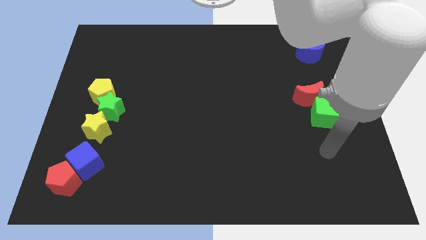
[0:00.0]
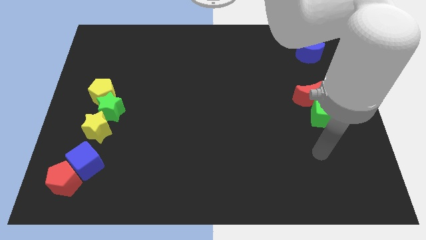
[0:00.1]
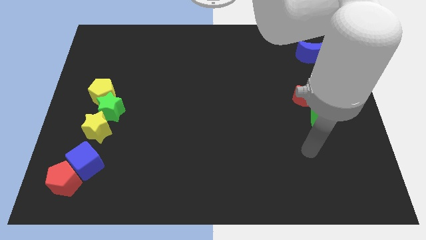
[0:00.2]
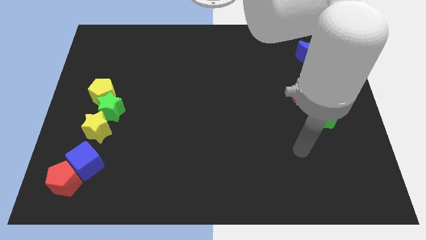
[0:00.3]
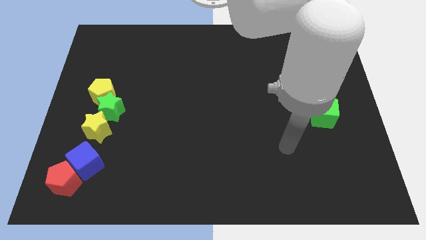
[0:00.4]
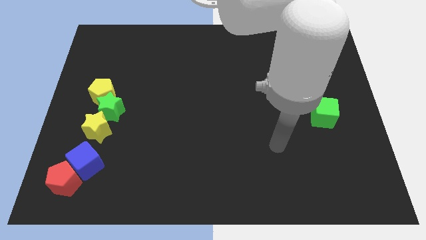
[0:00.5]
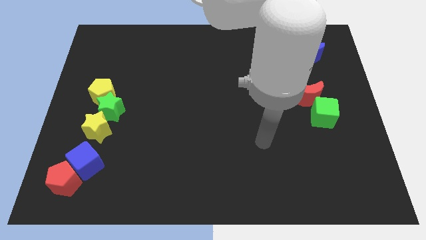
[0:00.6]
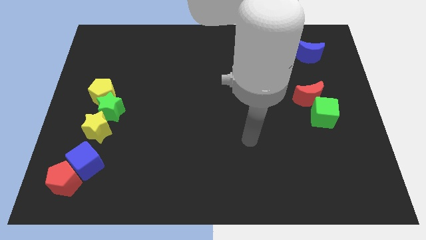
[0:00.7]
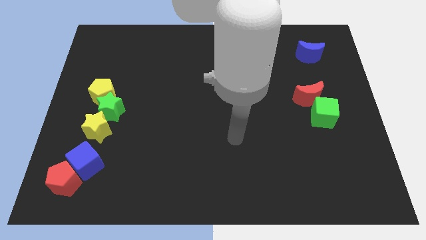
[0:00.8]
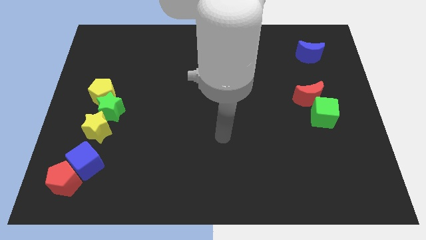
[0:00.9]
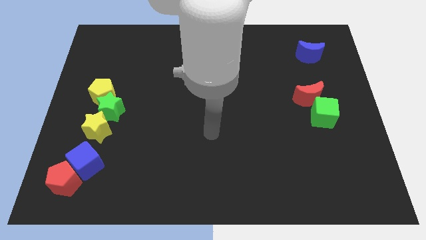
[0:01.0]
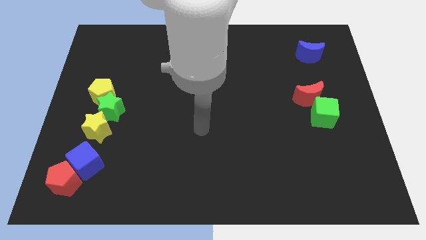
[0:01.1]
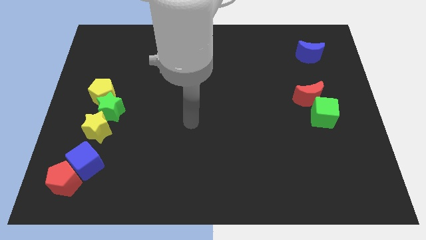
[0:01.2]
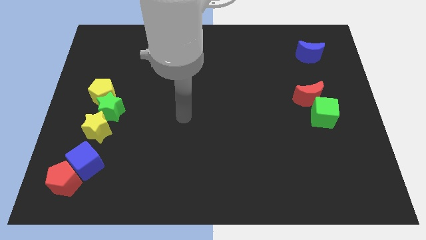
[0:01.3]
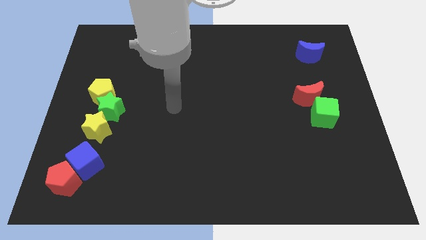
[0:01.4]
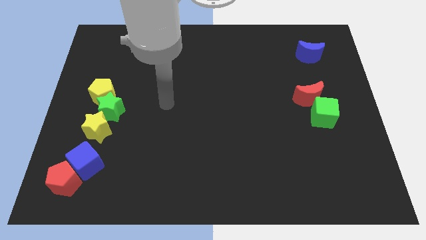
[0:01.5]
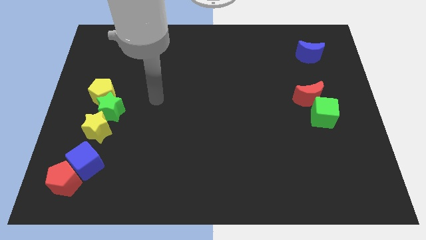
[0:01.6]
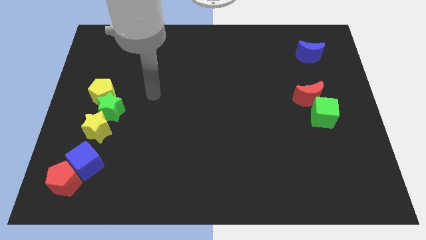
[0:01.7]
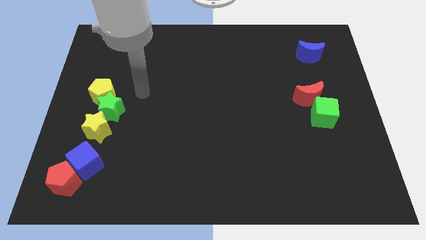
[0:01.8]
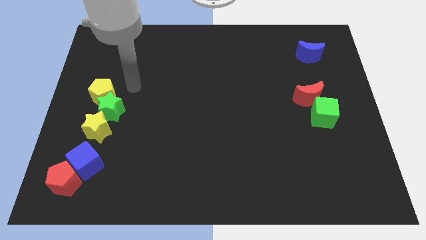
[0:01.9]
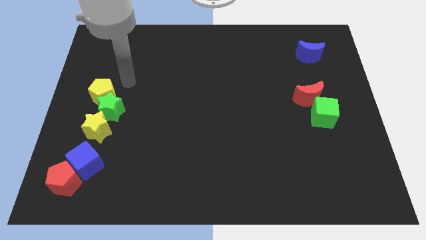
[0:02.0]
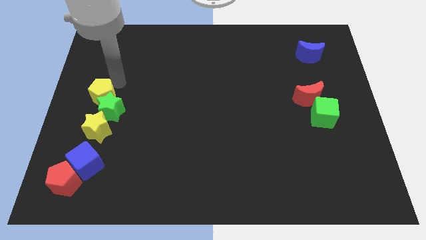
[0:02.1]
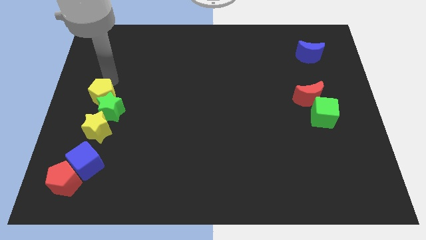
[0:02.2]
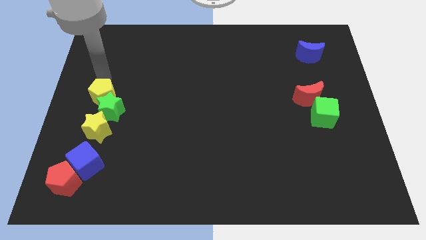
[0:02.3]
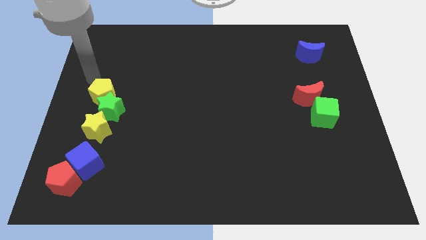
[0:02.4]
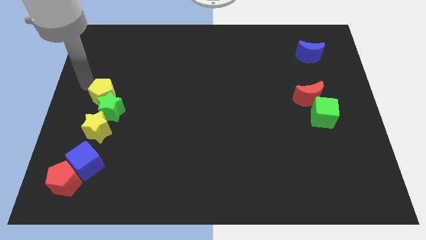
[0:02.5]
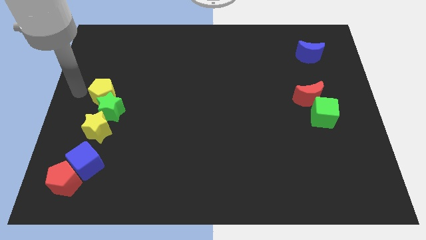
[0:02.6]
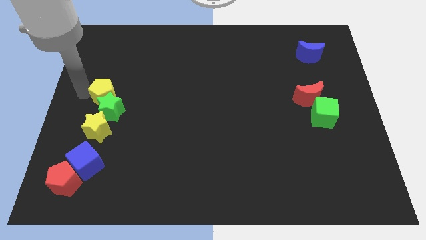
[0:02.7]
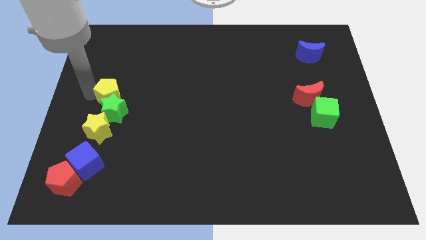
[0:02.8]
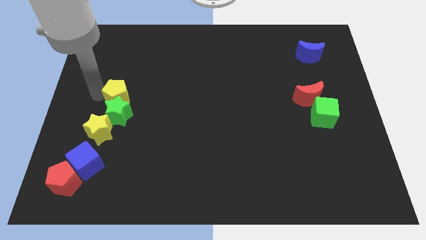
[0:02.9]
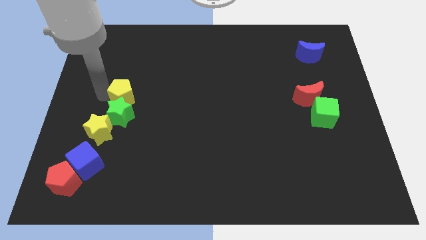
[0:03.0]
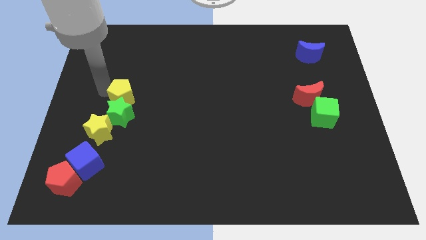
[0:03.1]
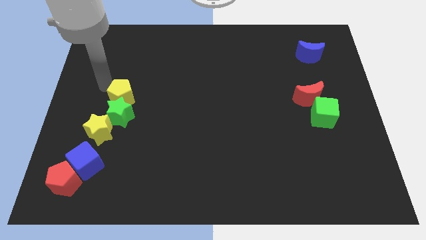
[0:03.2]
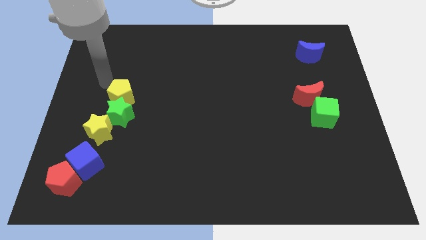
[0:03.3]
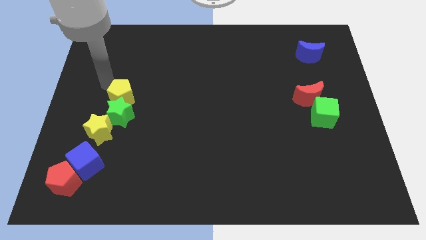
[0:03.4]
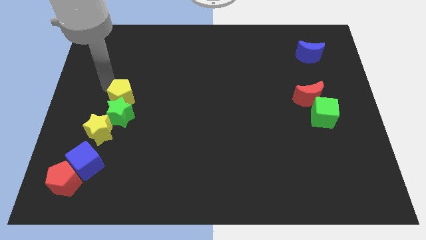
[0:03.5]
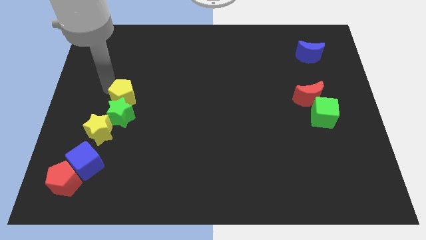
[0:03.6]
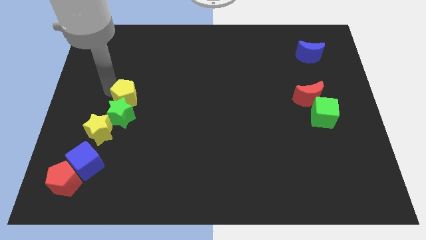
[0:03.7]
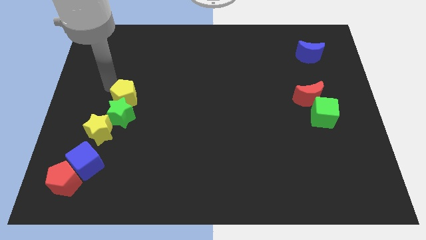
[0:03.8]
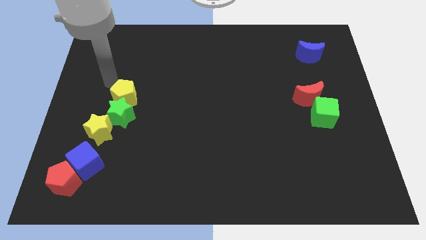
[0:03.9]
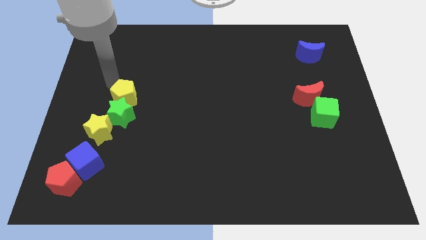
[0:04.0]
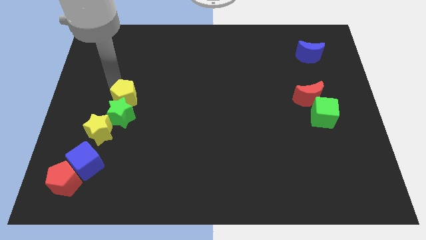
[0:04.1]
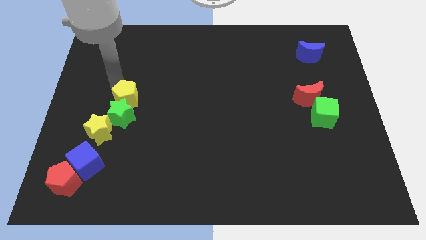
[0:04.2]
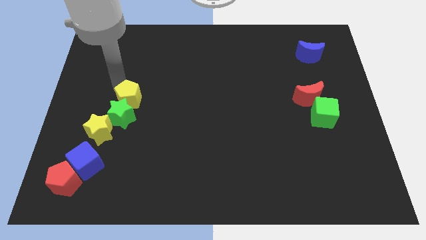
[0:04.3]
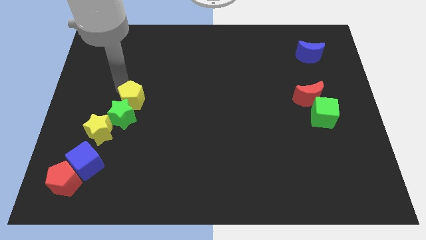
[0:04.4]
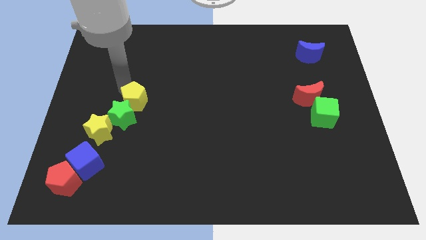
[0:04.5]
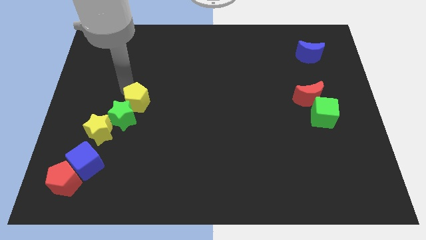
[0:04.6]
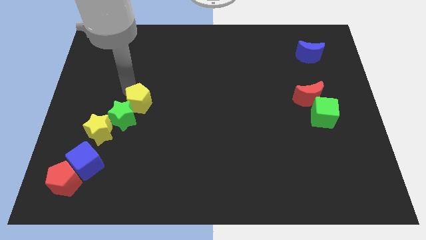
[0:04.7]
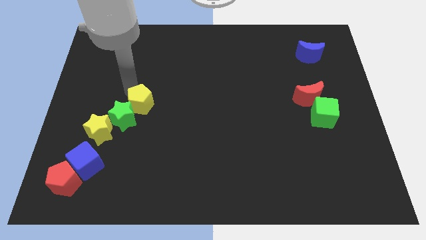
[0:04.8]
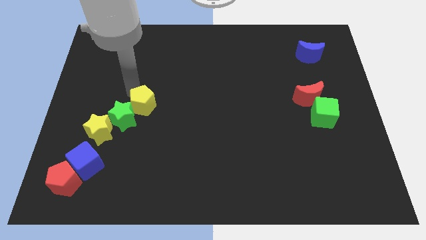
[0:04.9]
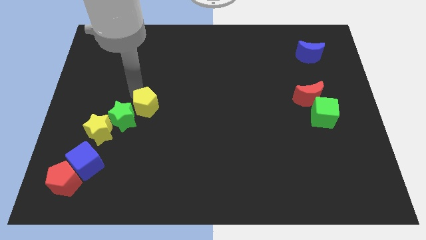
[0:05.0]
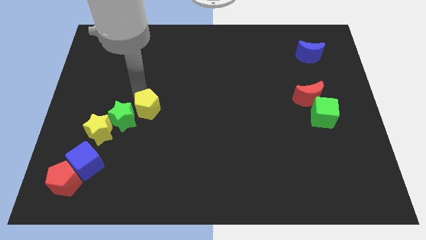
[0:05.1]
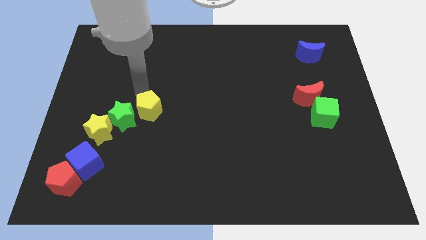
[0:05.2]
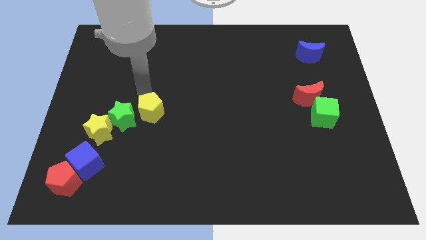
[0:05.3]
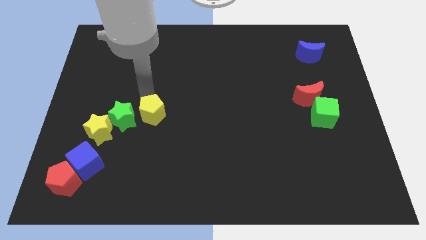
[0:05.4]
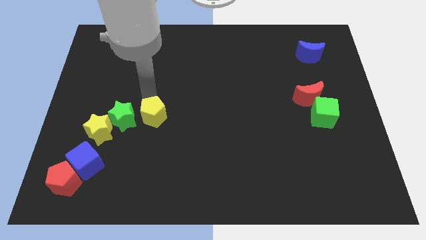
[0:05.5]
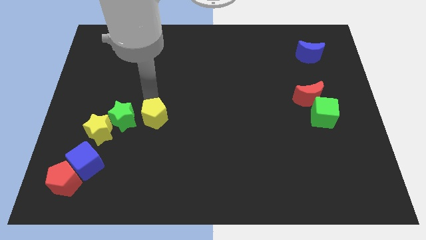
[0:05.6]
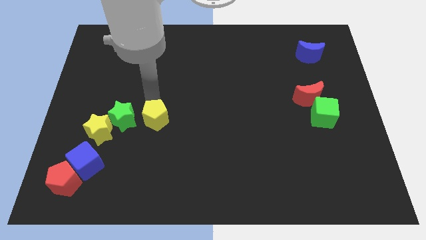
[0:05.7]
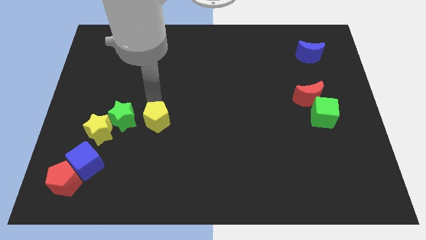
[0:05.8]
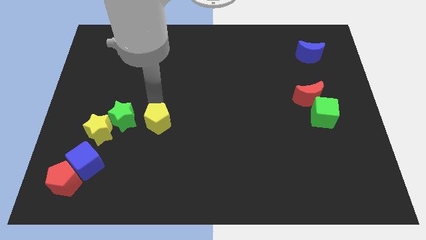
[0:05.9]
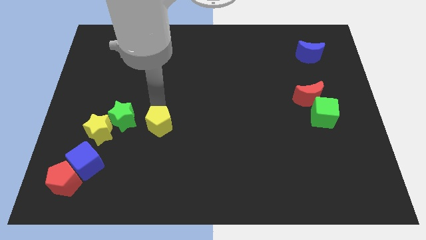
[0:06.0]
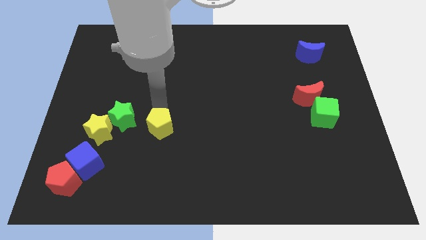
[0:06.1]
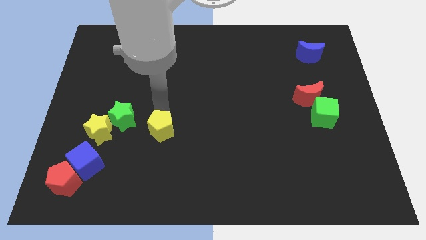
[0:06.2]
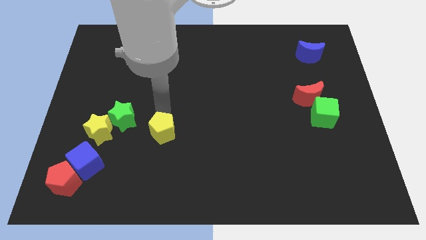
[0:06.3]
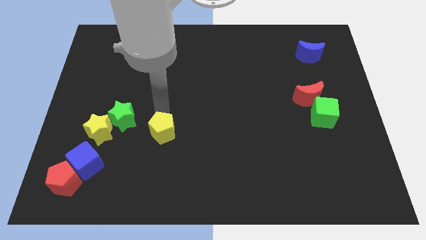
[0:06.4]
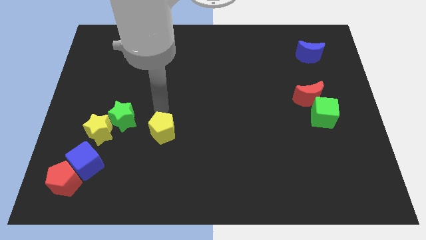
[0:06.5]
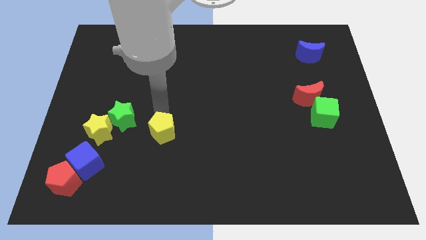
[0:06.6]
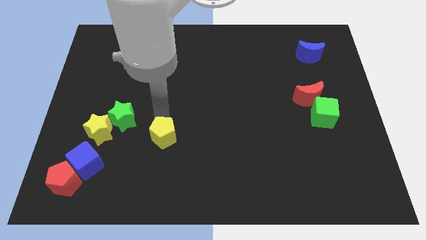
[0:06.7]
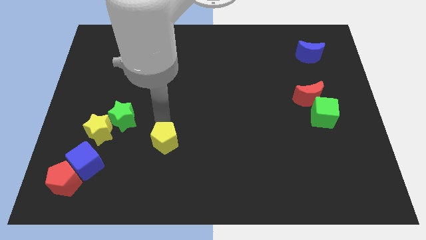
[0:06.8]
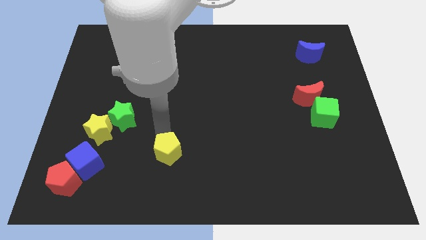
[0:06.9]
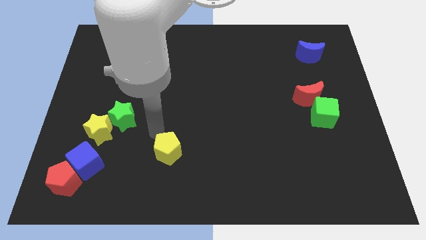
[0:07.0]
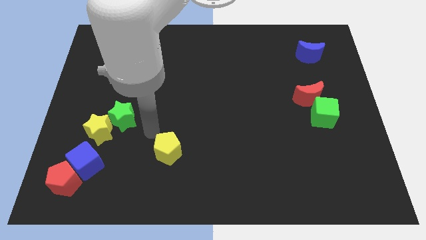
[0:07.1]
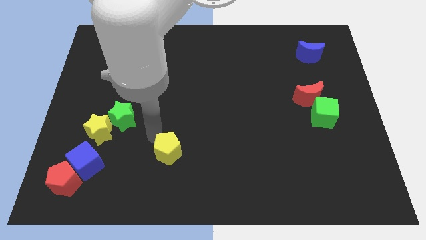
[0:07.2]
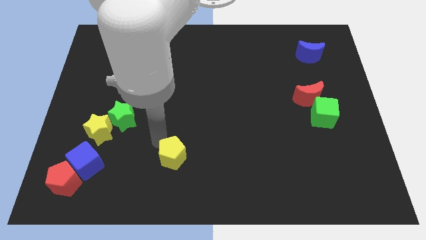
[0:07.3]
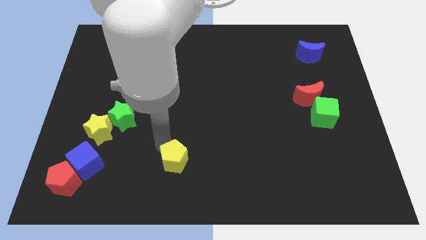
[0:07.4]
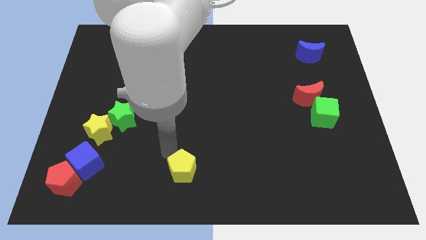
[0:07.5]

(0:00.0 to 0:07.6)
move the yellow pentagon to the bottom side
